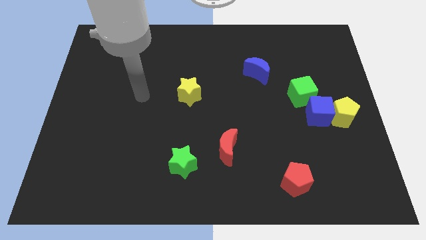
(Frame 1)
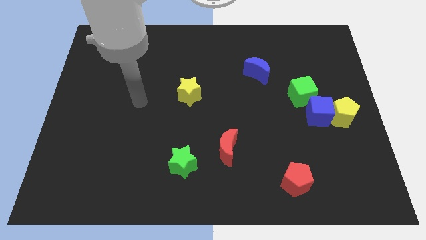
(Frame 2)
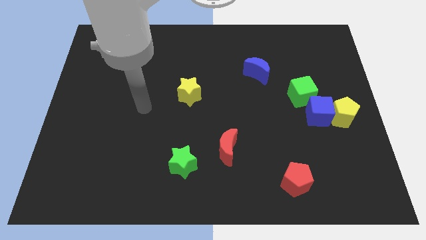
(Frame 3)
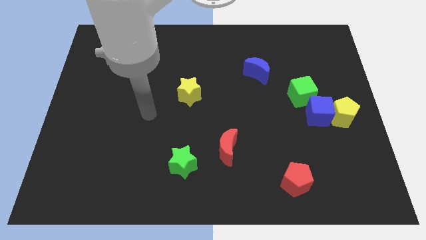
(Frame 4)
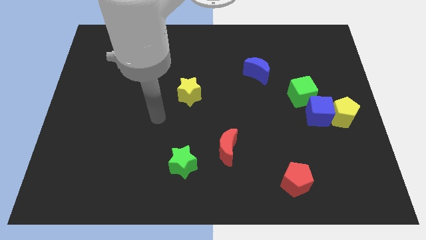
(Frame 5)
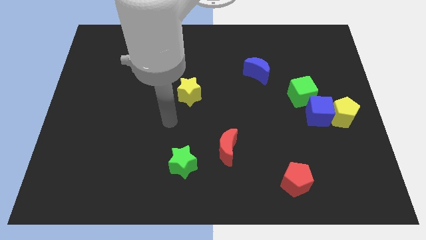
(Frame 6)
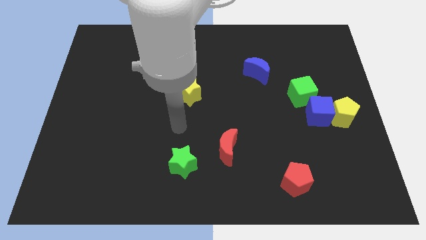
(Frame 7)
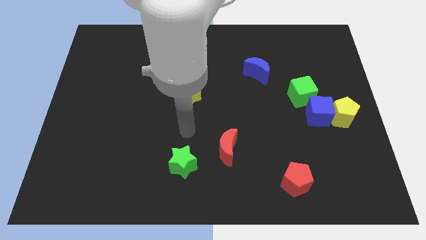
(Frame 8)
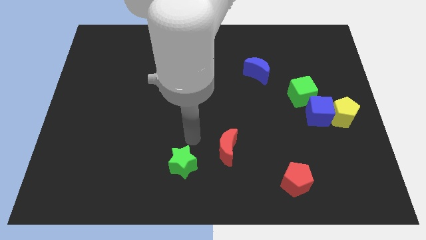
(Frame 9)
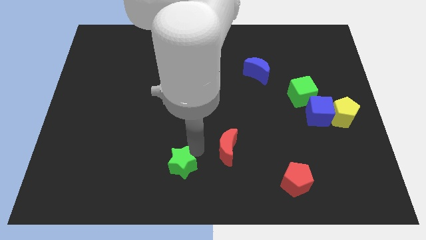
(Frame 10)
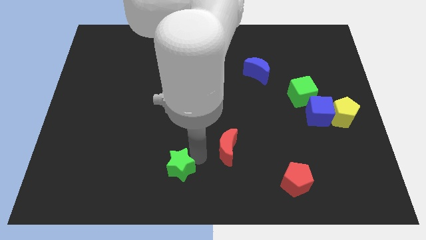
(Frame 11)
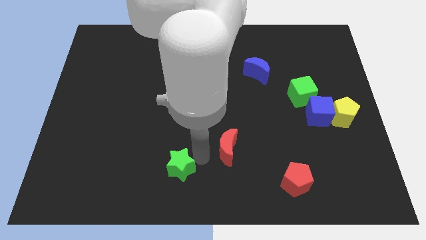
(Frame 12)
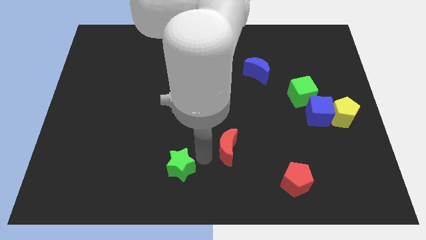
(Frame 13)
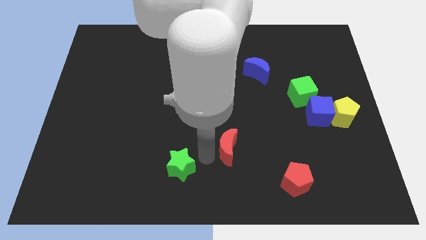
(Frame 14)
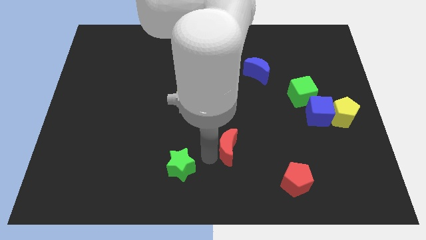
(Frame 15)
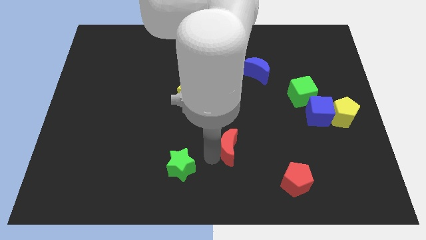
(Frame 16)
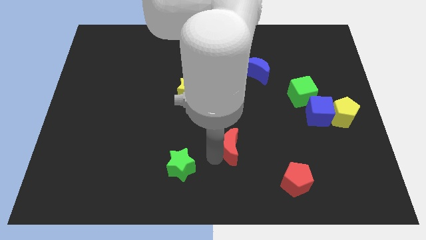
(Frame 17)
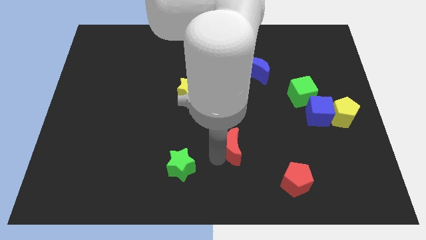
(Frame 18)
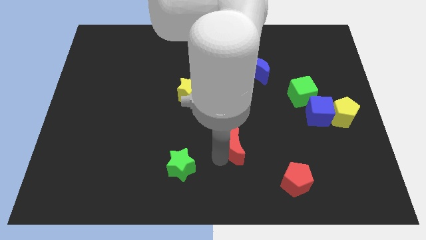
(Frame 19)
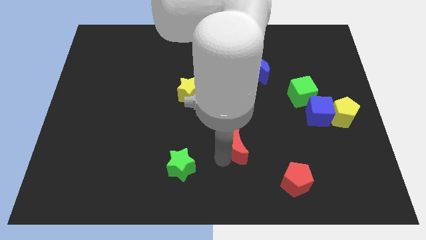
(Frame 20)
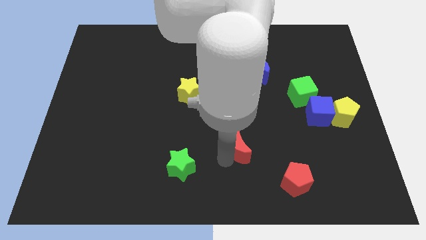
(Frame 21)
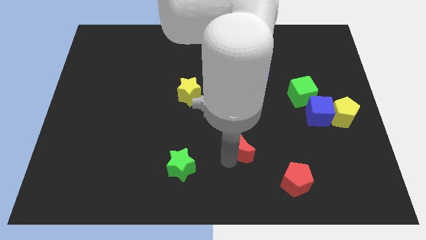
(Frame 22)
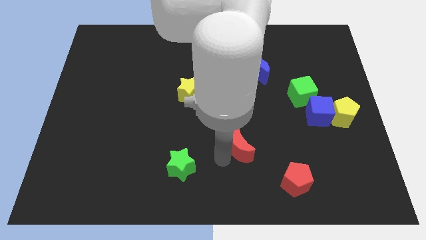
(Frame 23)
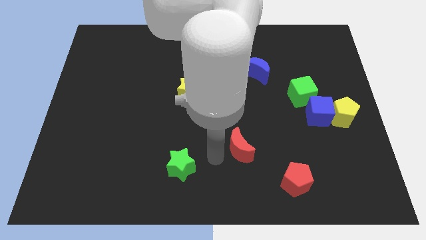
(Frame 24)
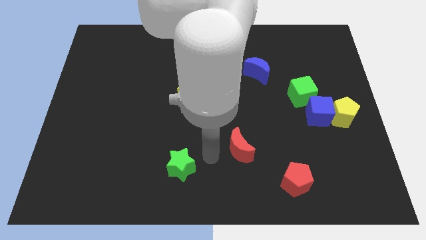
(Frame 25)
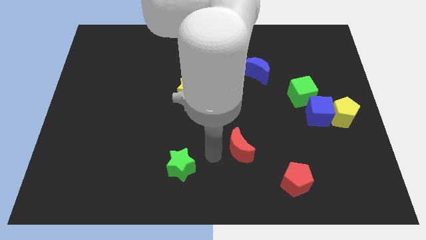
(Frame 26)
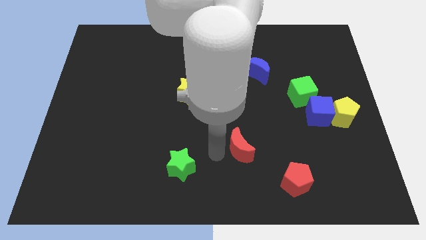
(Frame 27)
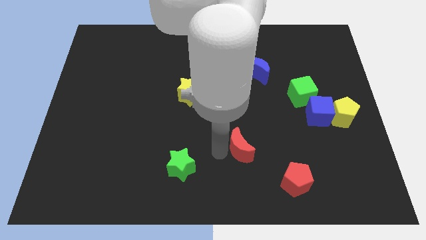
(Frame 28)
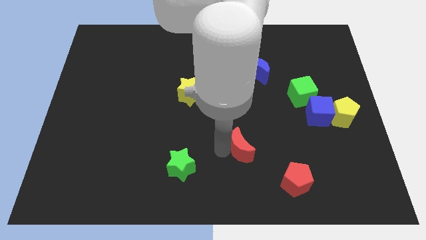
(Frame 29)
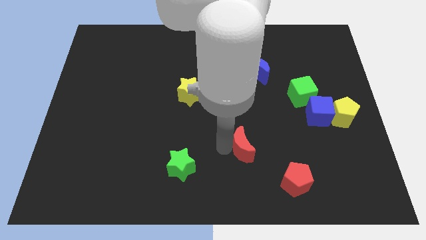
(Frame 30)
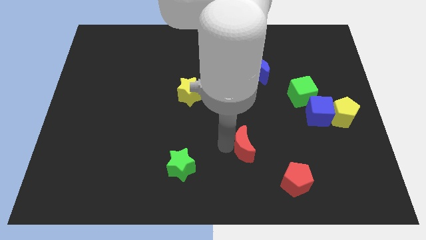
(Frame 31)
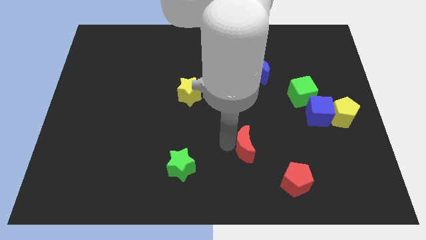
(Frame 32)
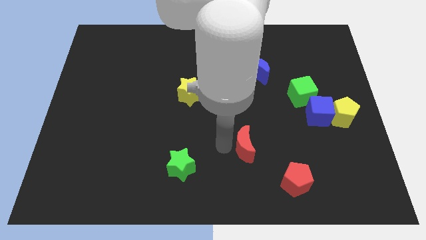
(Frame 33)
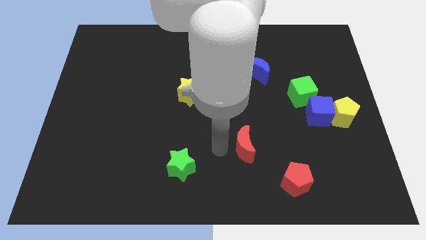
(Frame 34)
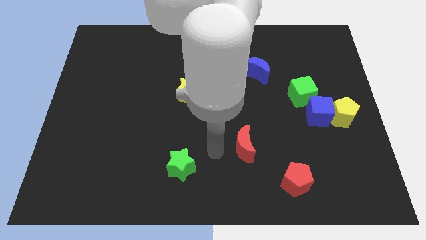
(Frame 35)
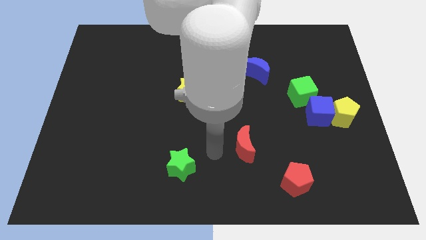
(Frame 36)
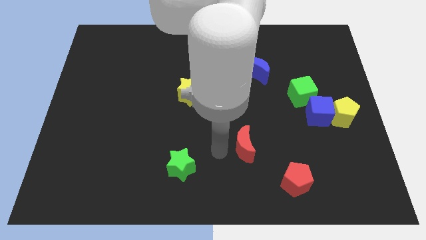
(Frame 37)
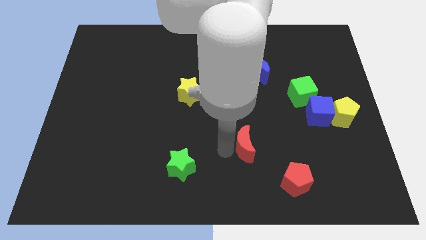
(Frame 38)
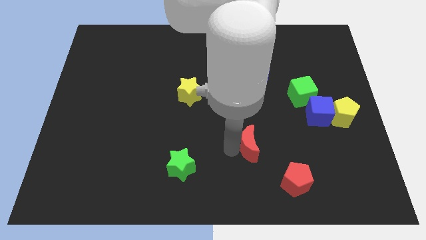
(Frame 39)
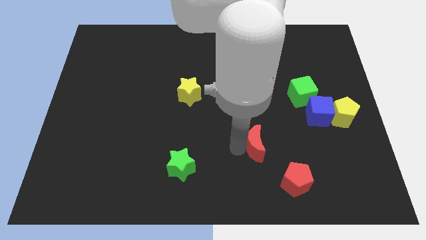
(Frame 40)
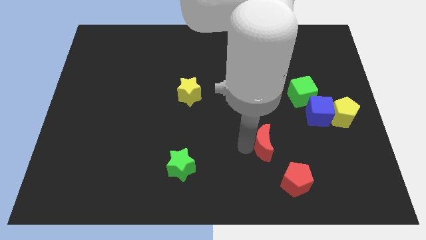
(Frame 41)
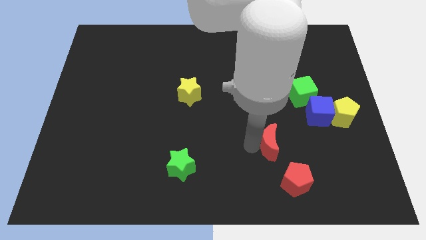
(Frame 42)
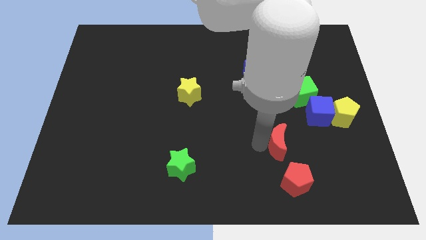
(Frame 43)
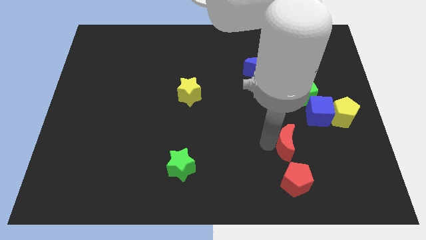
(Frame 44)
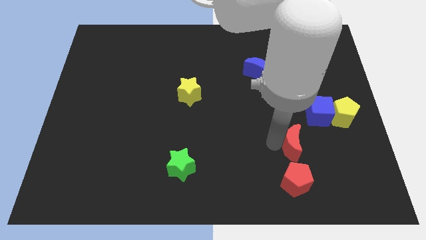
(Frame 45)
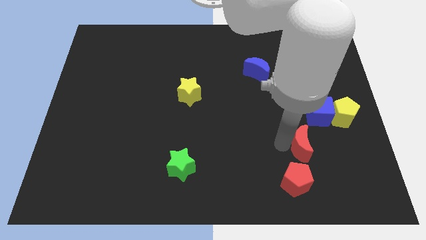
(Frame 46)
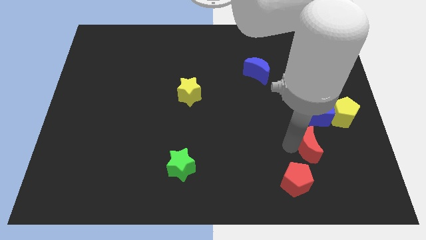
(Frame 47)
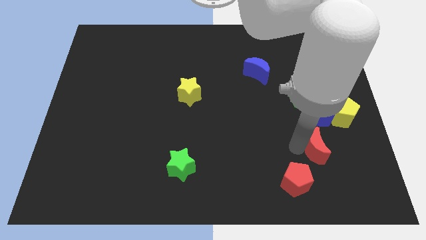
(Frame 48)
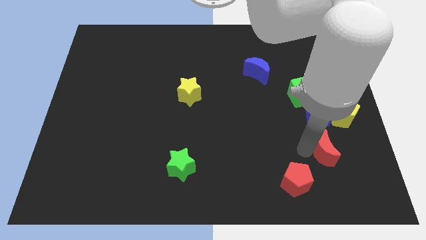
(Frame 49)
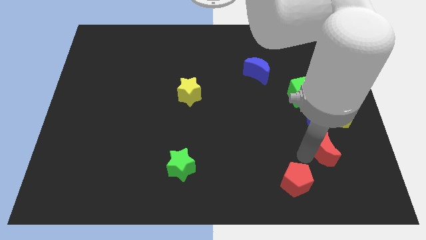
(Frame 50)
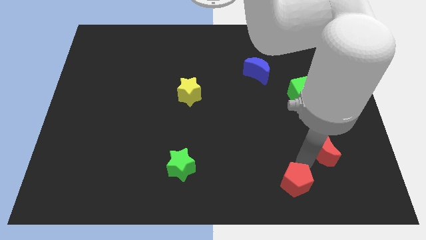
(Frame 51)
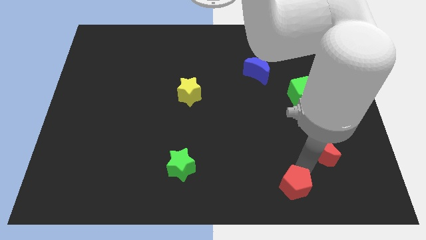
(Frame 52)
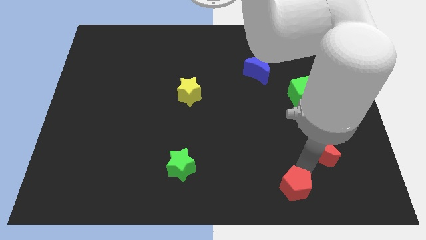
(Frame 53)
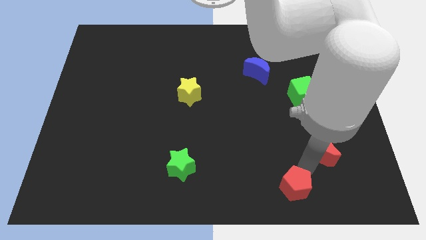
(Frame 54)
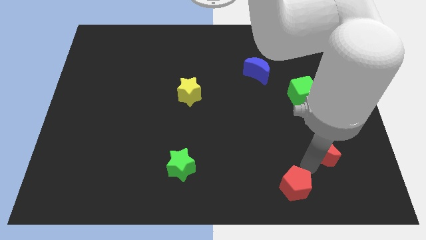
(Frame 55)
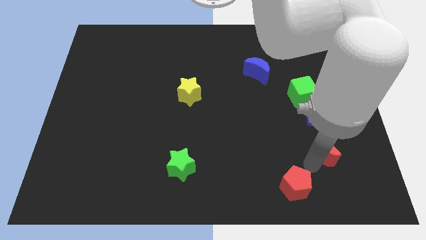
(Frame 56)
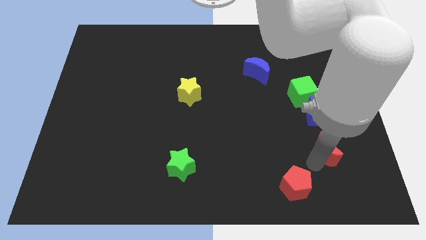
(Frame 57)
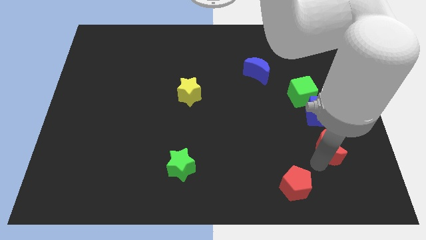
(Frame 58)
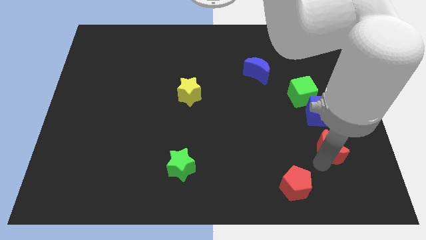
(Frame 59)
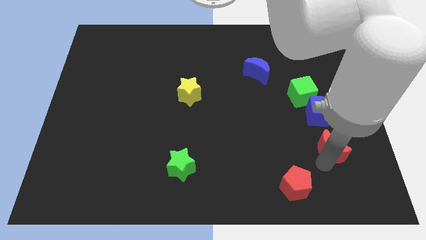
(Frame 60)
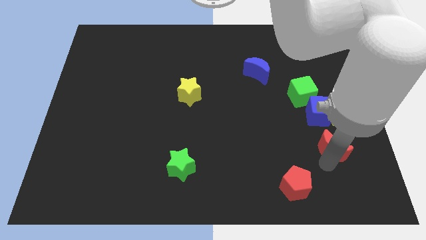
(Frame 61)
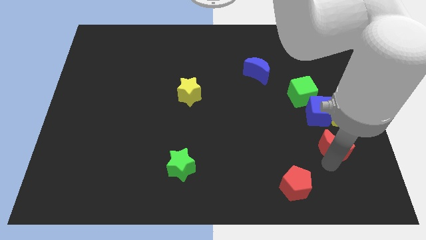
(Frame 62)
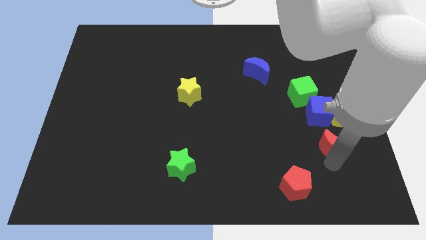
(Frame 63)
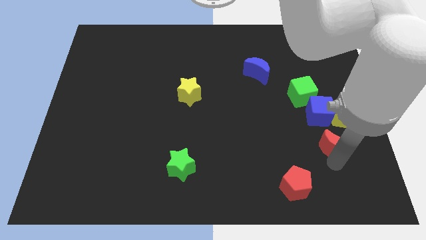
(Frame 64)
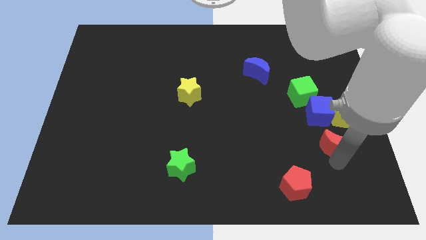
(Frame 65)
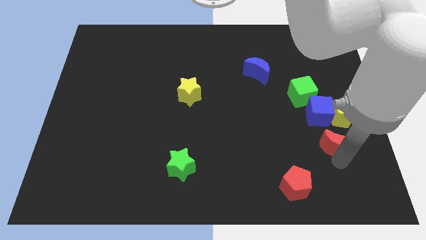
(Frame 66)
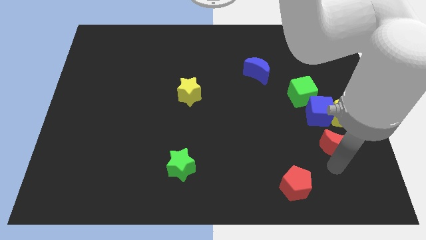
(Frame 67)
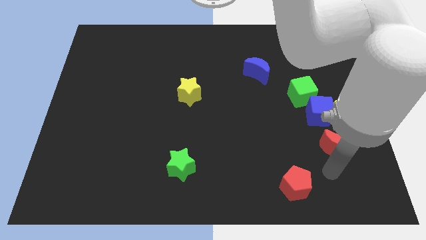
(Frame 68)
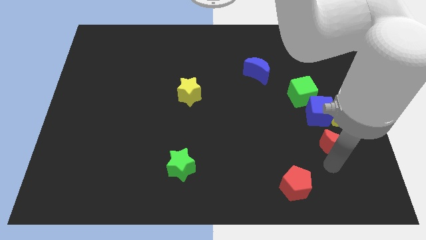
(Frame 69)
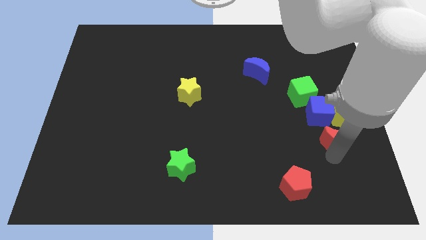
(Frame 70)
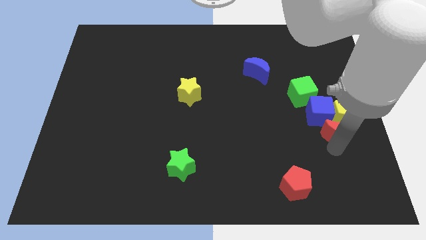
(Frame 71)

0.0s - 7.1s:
slide the red moon next to the yellow pentagon
